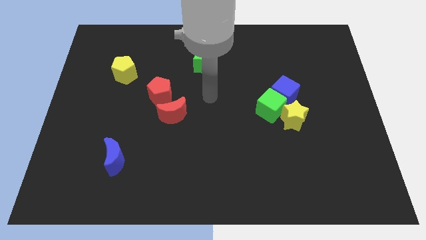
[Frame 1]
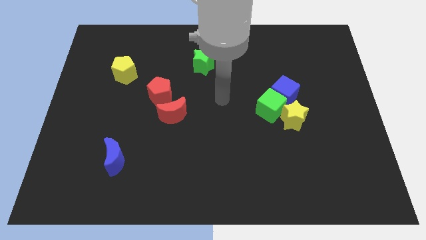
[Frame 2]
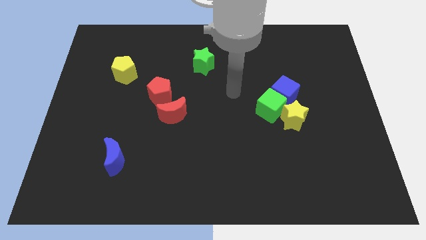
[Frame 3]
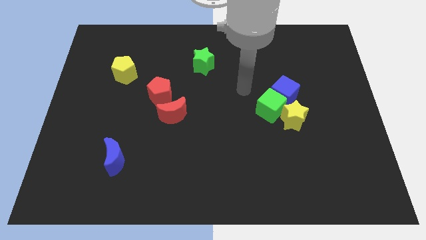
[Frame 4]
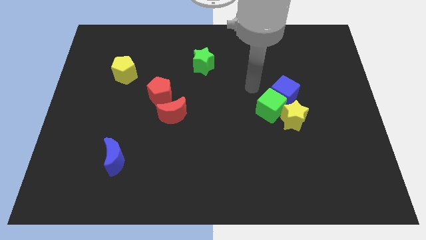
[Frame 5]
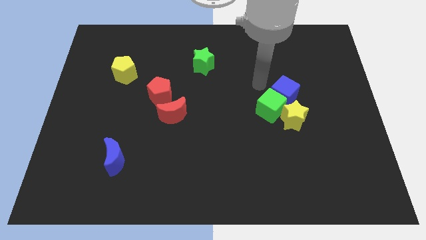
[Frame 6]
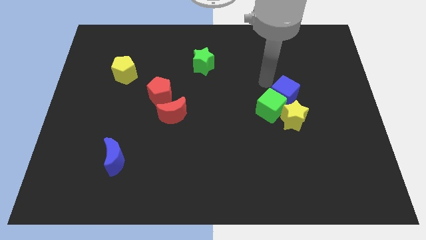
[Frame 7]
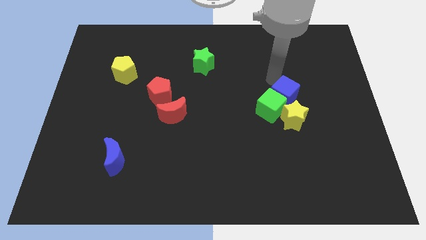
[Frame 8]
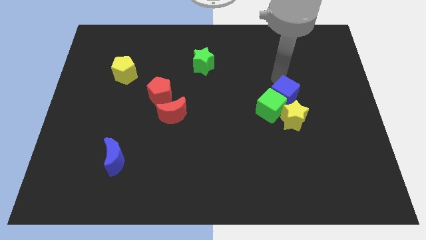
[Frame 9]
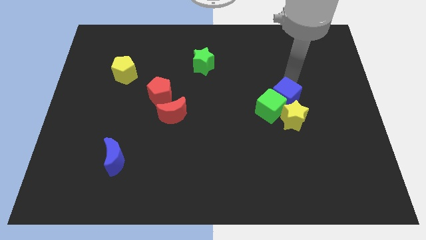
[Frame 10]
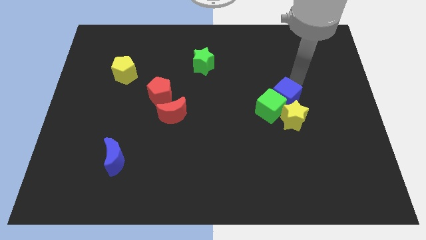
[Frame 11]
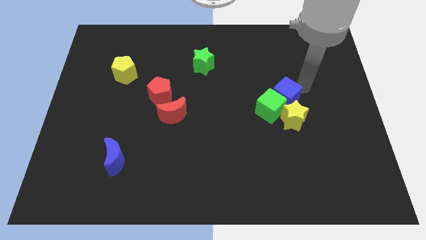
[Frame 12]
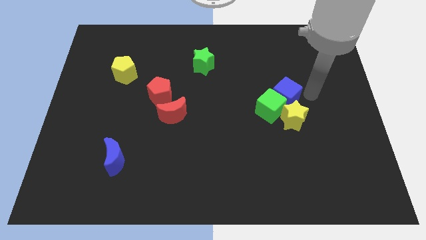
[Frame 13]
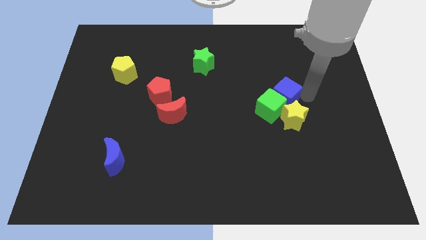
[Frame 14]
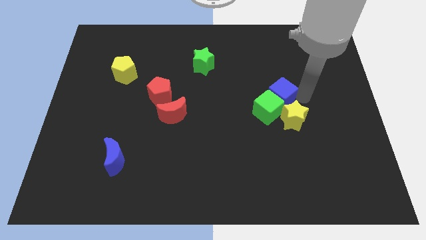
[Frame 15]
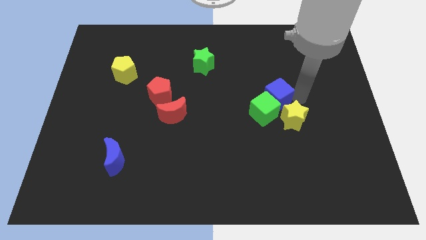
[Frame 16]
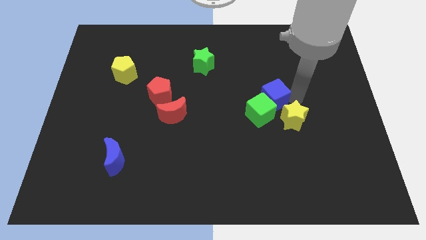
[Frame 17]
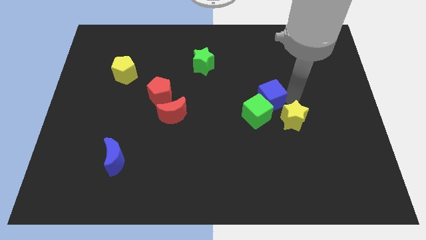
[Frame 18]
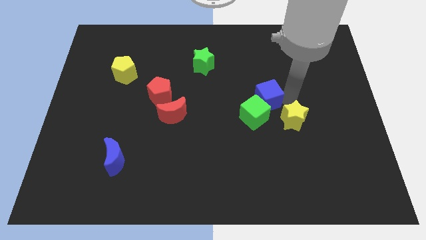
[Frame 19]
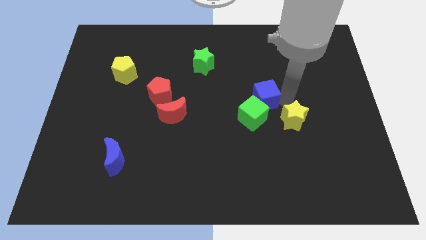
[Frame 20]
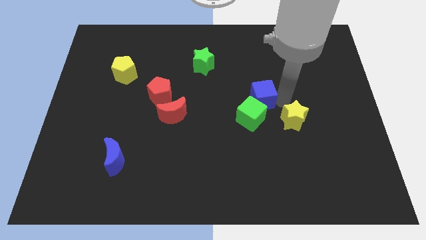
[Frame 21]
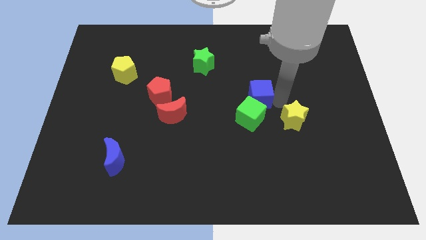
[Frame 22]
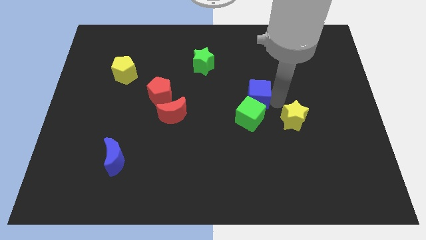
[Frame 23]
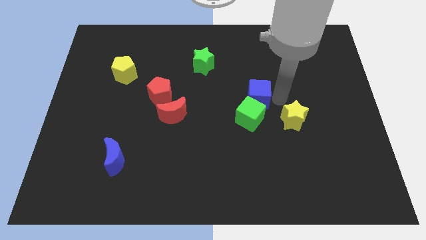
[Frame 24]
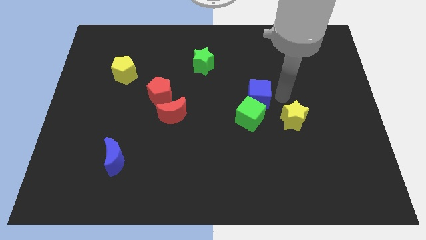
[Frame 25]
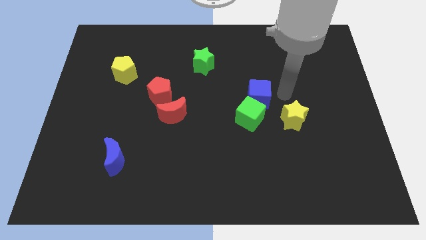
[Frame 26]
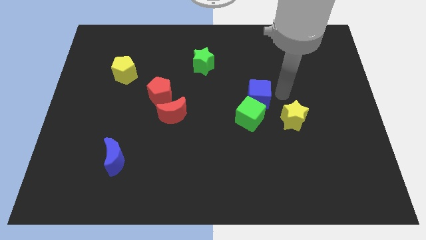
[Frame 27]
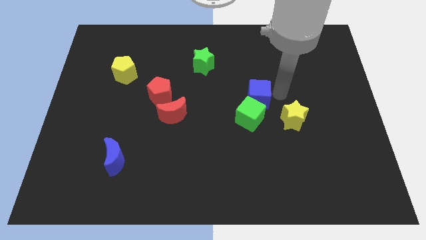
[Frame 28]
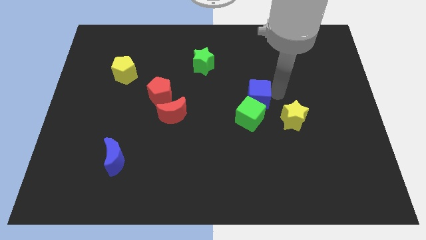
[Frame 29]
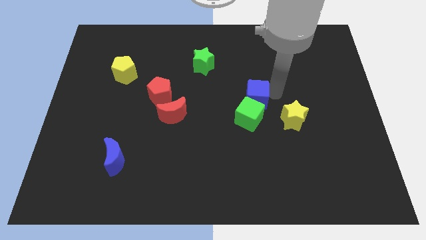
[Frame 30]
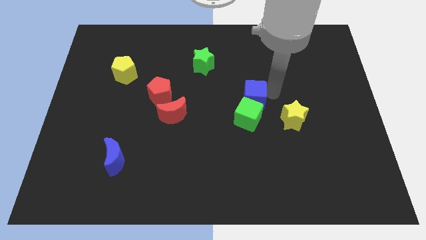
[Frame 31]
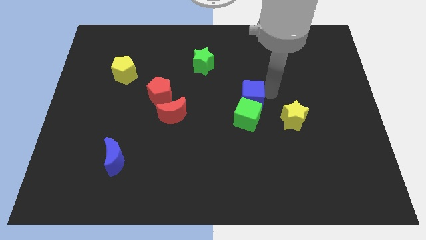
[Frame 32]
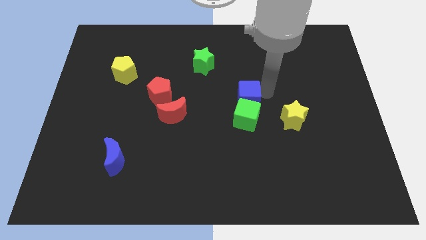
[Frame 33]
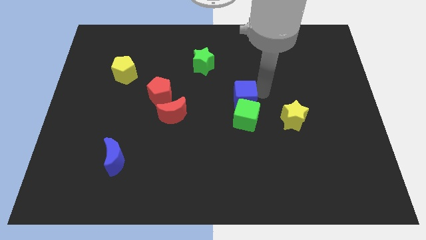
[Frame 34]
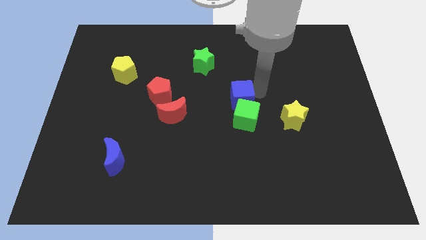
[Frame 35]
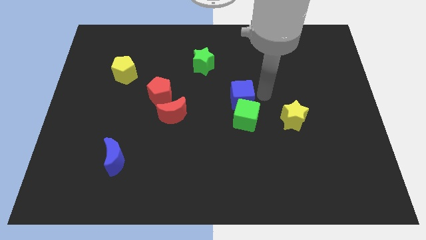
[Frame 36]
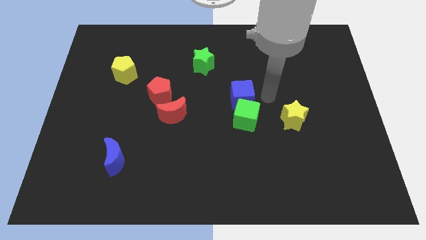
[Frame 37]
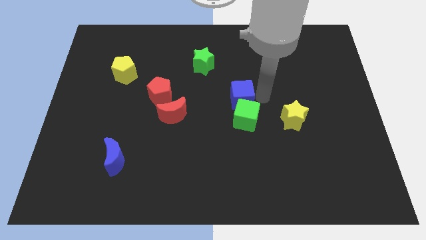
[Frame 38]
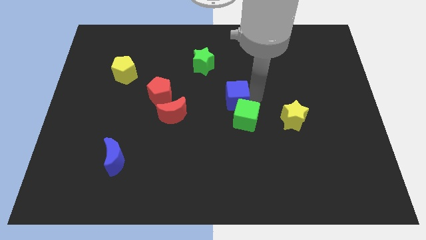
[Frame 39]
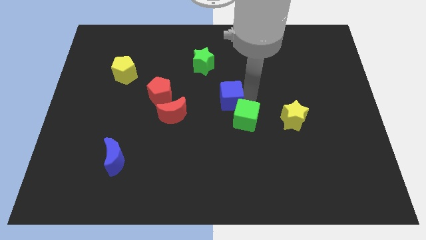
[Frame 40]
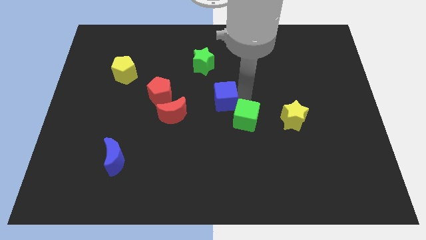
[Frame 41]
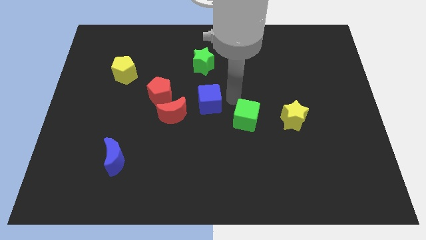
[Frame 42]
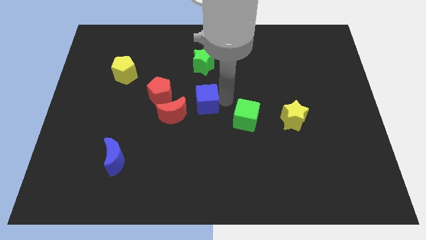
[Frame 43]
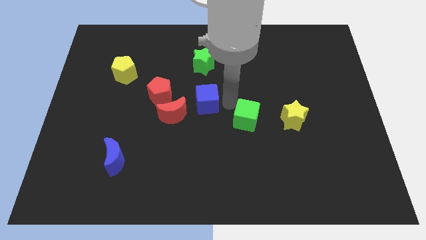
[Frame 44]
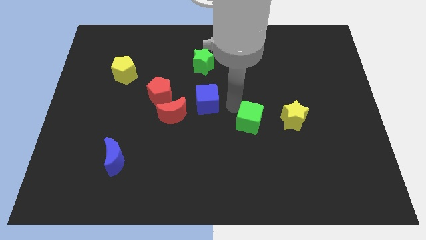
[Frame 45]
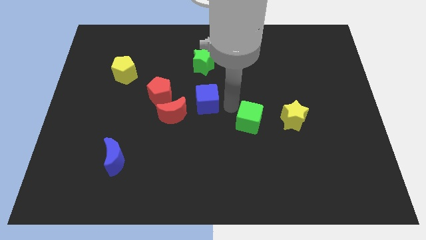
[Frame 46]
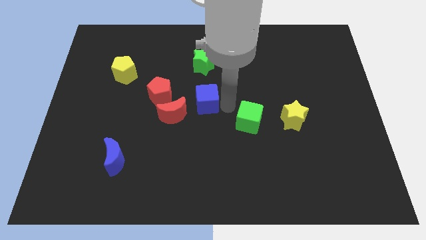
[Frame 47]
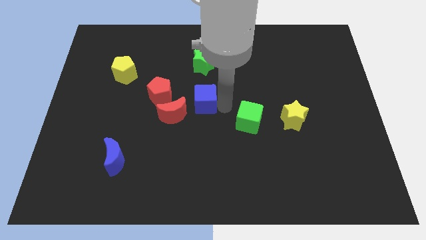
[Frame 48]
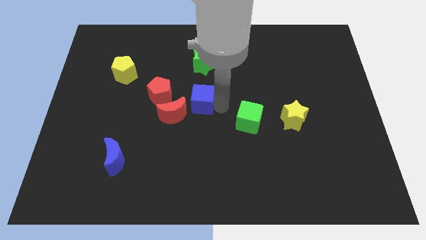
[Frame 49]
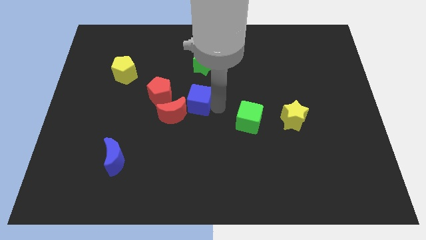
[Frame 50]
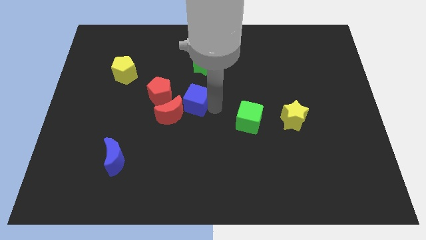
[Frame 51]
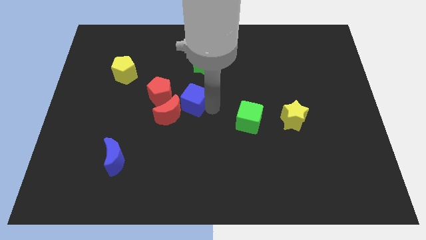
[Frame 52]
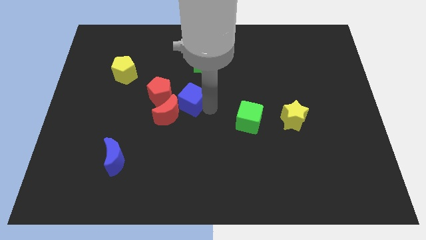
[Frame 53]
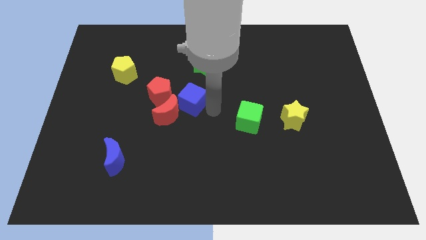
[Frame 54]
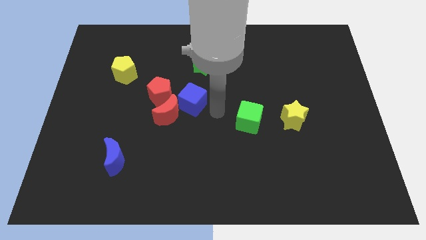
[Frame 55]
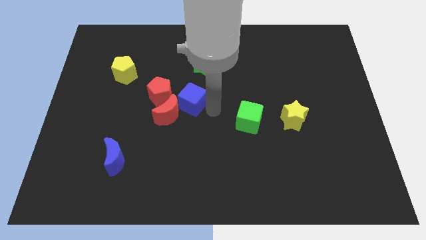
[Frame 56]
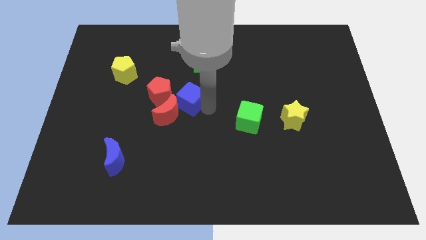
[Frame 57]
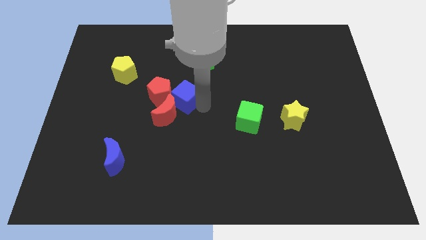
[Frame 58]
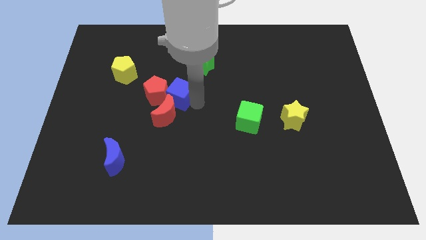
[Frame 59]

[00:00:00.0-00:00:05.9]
slide the blue cube next to the red pentagon

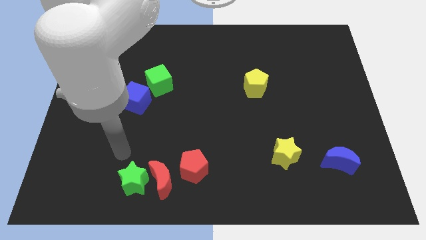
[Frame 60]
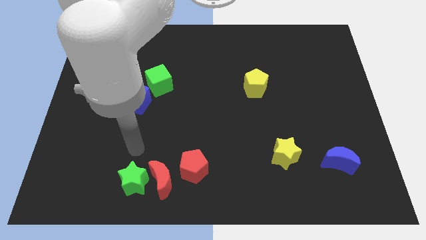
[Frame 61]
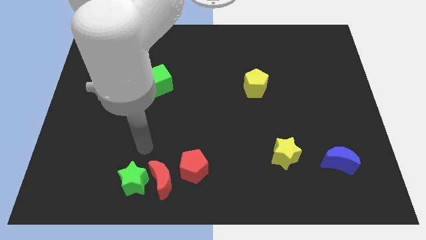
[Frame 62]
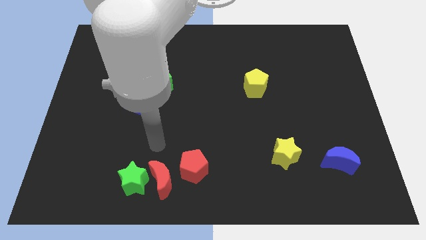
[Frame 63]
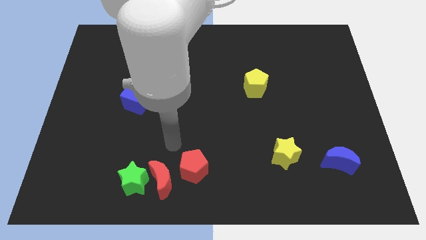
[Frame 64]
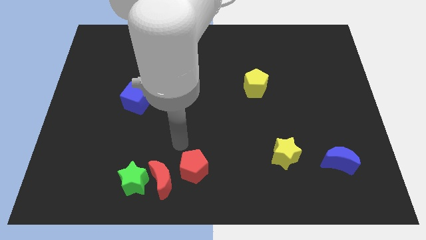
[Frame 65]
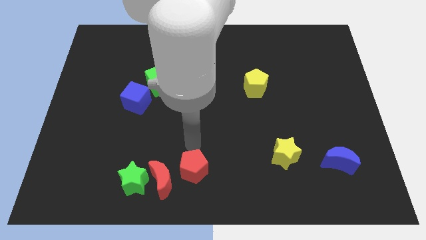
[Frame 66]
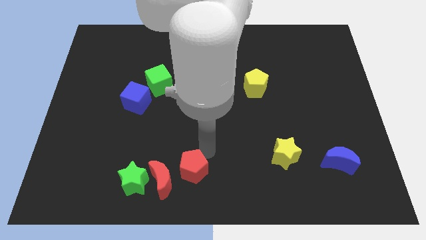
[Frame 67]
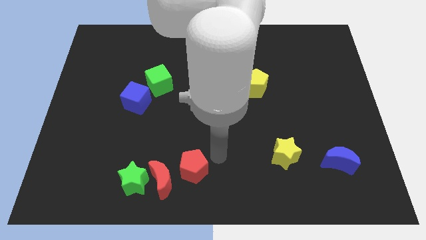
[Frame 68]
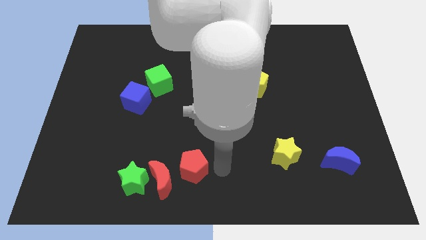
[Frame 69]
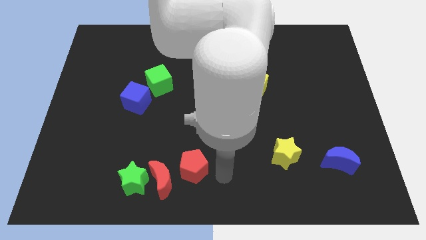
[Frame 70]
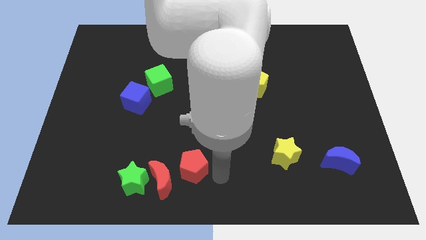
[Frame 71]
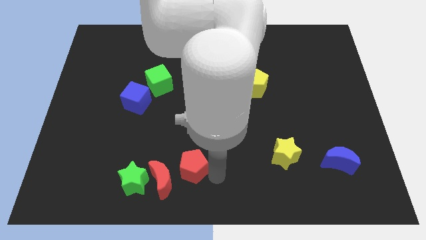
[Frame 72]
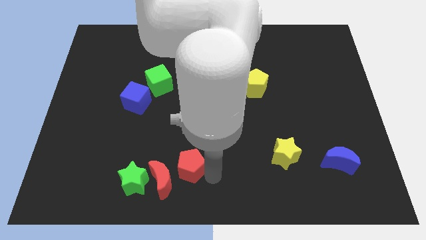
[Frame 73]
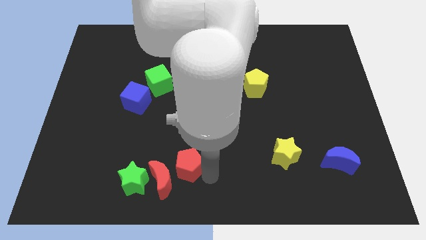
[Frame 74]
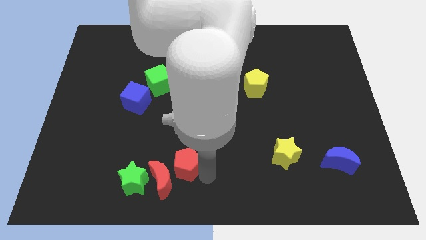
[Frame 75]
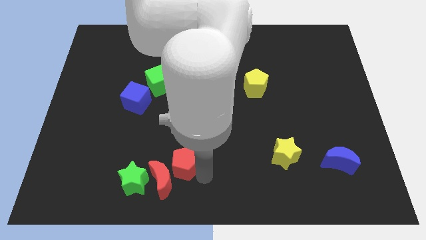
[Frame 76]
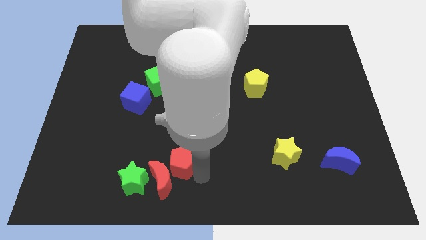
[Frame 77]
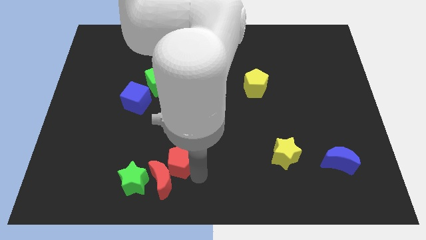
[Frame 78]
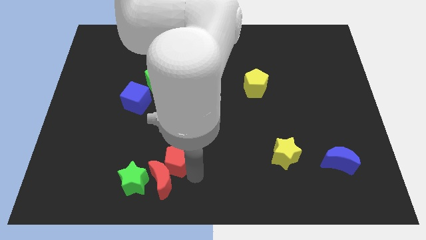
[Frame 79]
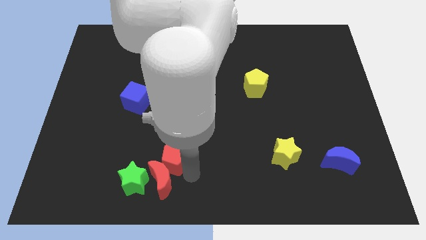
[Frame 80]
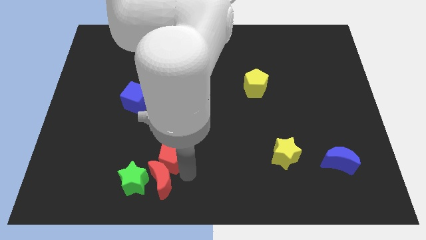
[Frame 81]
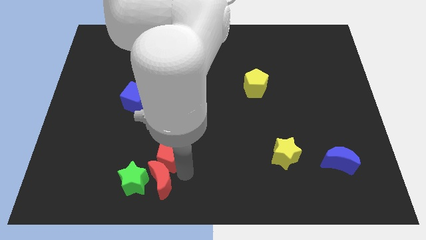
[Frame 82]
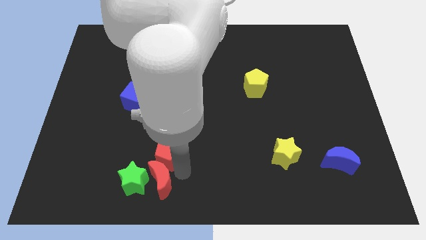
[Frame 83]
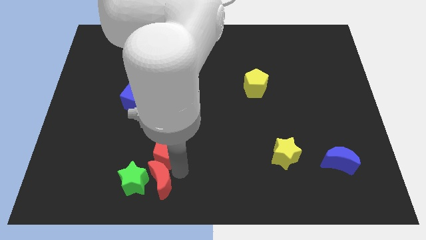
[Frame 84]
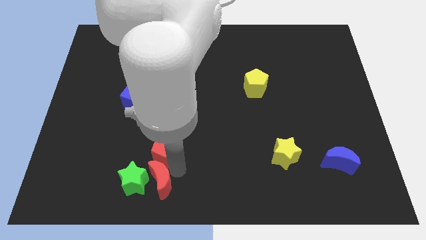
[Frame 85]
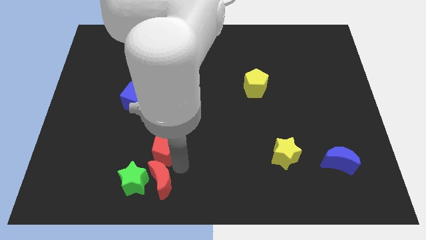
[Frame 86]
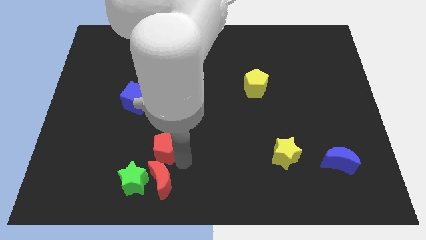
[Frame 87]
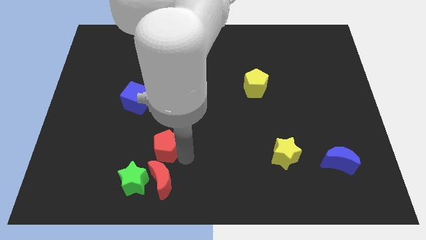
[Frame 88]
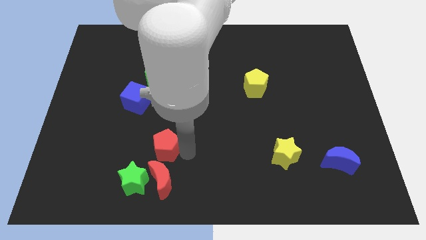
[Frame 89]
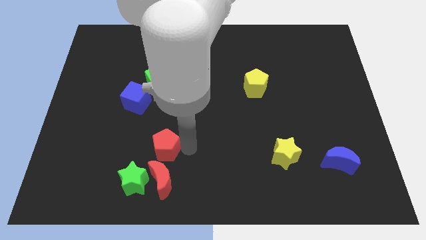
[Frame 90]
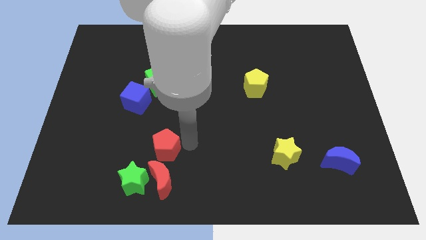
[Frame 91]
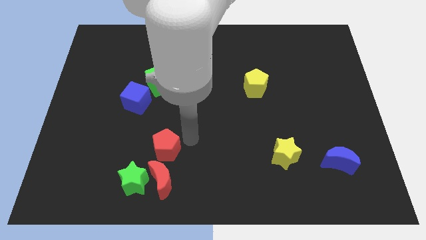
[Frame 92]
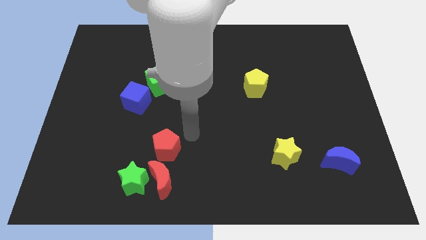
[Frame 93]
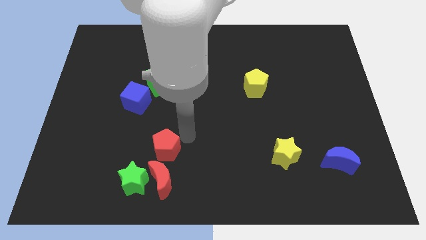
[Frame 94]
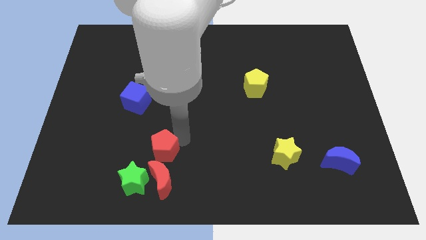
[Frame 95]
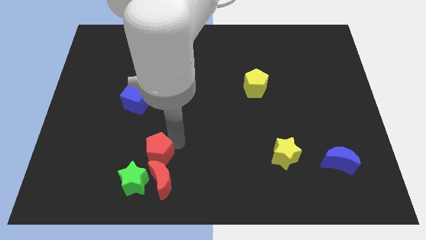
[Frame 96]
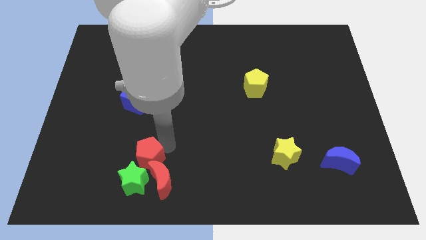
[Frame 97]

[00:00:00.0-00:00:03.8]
push the red pentagon close to the green star
